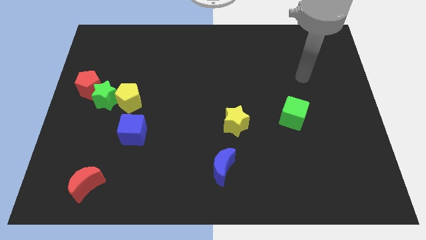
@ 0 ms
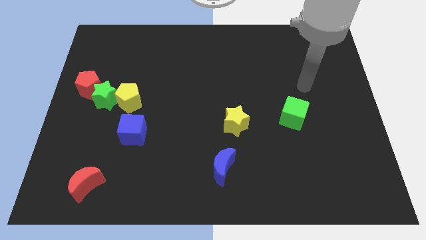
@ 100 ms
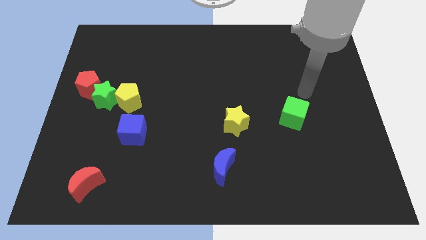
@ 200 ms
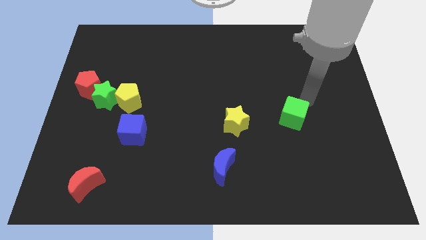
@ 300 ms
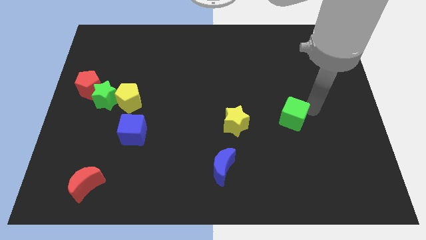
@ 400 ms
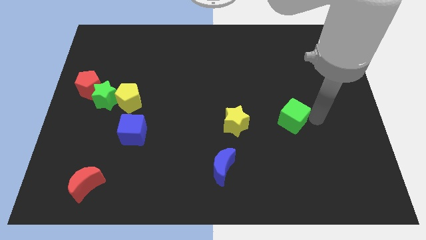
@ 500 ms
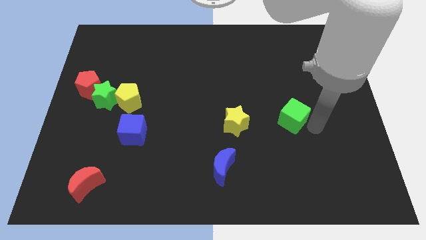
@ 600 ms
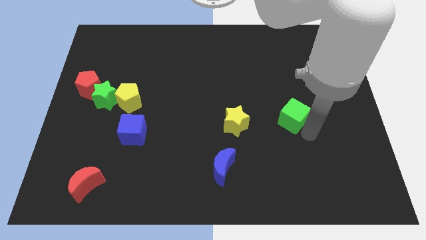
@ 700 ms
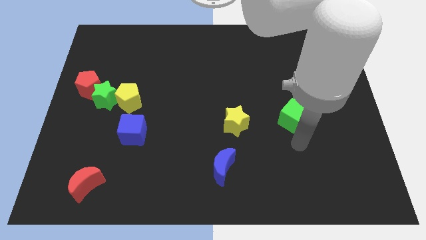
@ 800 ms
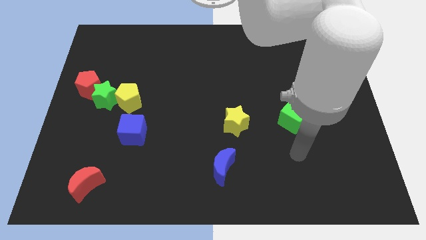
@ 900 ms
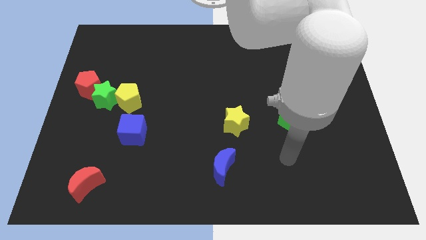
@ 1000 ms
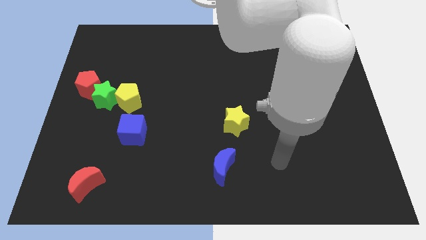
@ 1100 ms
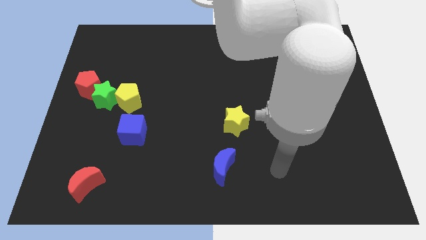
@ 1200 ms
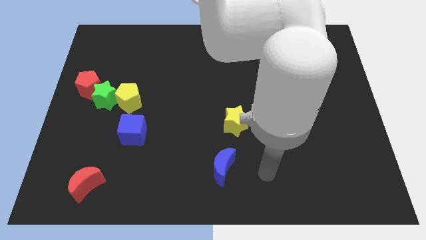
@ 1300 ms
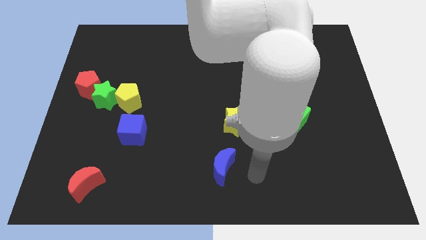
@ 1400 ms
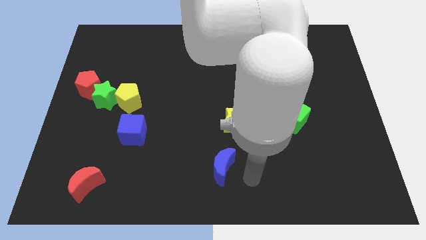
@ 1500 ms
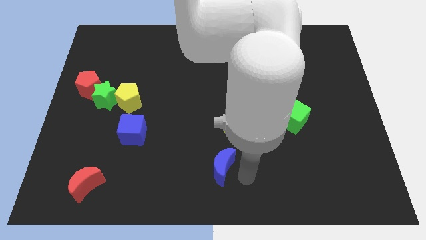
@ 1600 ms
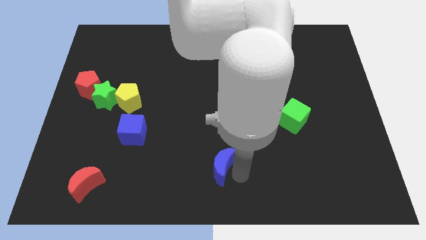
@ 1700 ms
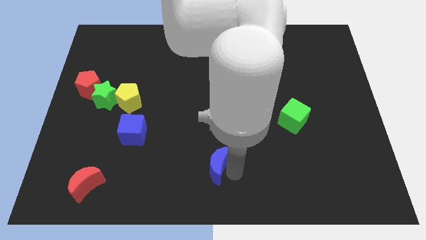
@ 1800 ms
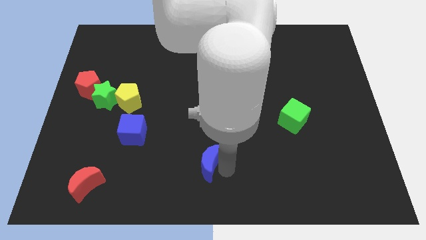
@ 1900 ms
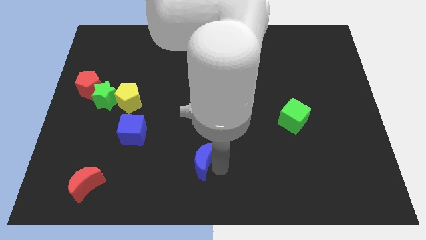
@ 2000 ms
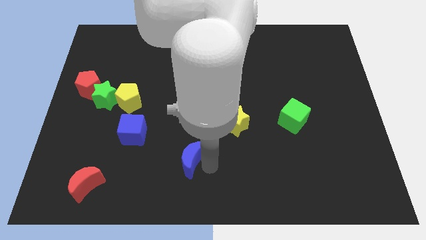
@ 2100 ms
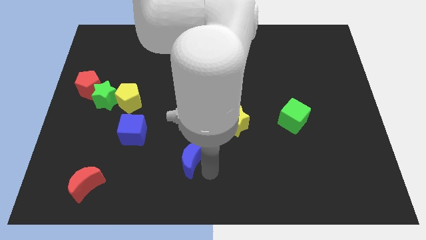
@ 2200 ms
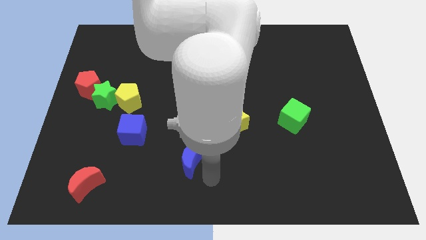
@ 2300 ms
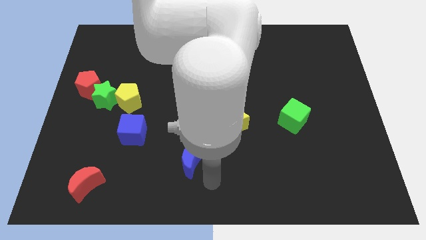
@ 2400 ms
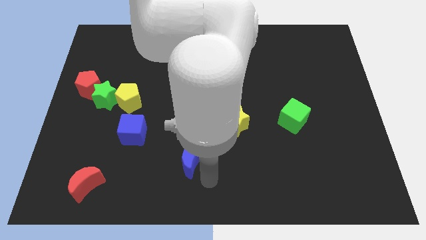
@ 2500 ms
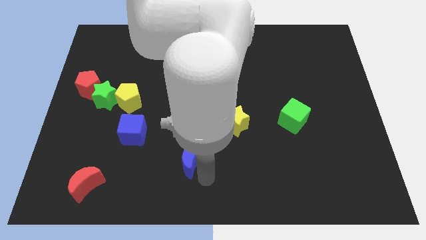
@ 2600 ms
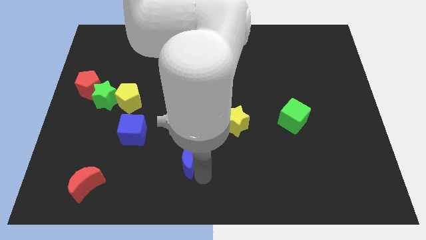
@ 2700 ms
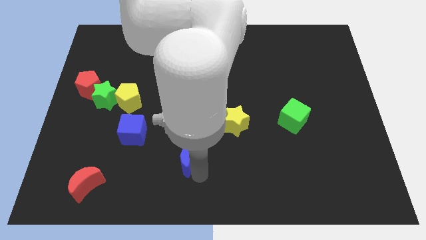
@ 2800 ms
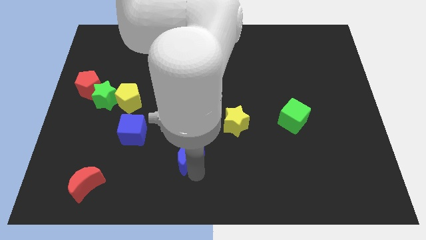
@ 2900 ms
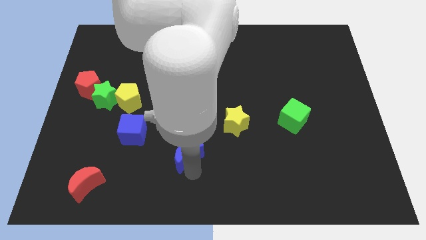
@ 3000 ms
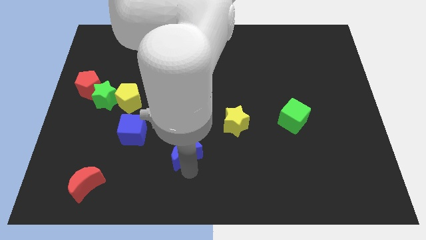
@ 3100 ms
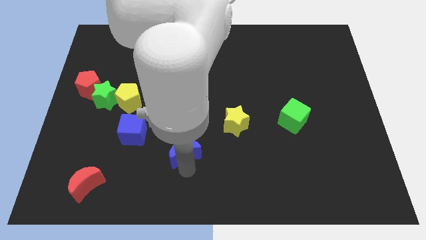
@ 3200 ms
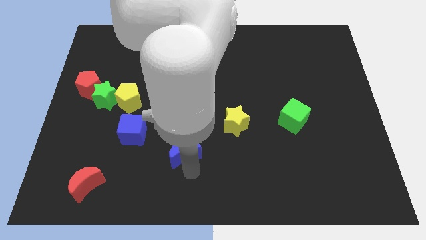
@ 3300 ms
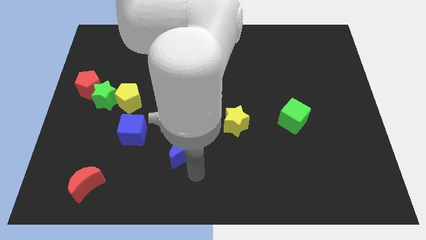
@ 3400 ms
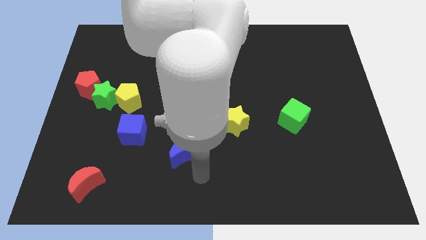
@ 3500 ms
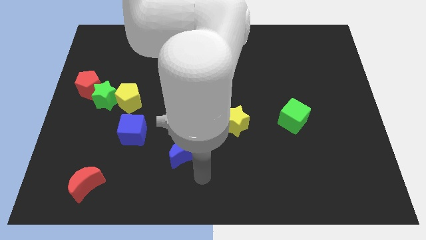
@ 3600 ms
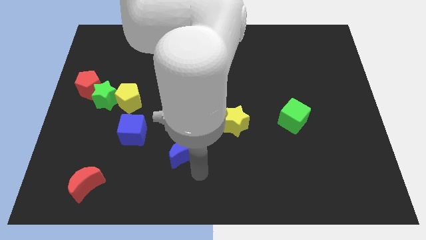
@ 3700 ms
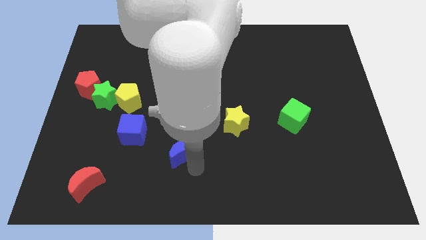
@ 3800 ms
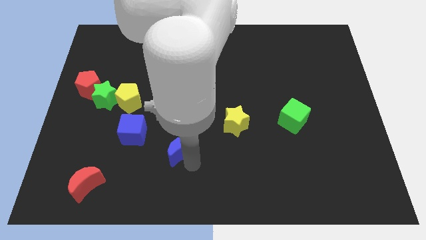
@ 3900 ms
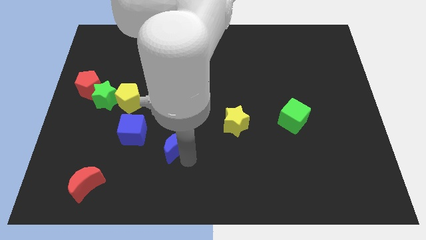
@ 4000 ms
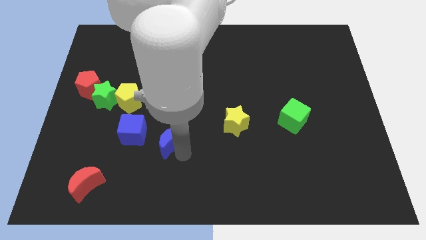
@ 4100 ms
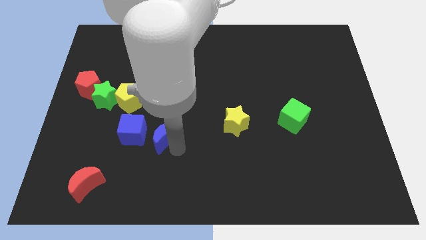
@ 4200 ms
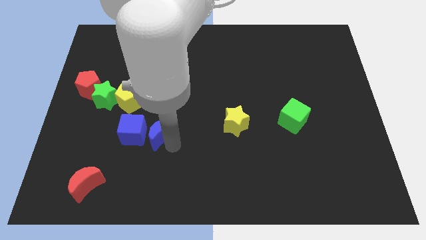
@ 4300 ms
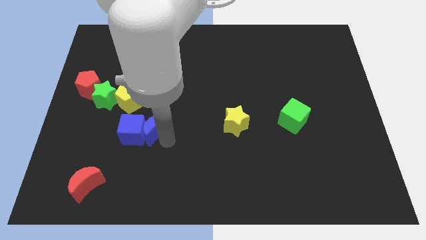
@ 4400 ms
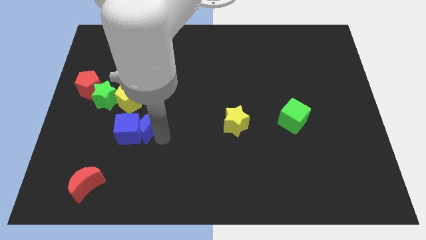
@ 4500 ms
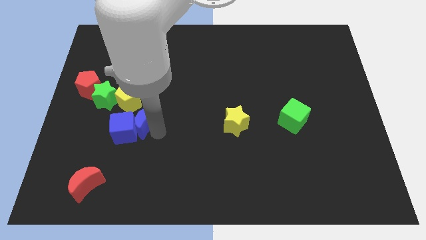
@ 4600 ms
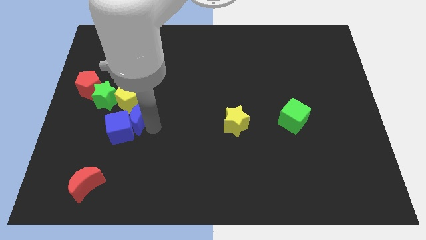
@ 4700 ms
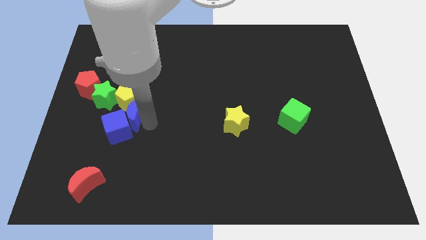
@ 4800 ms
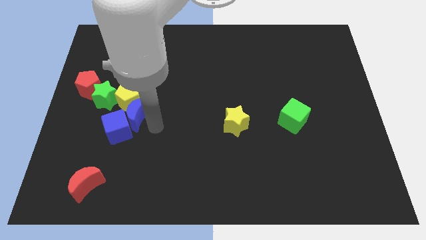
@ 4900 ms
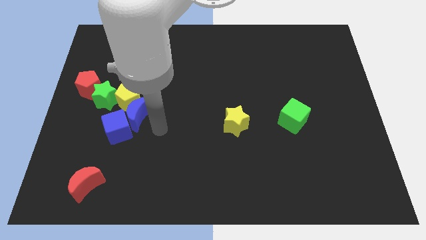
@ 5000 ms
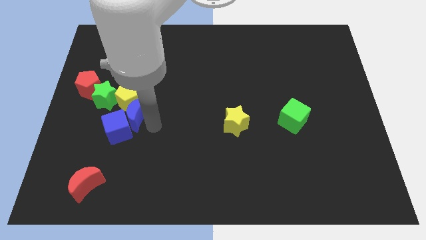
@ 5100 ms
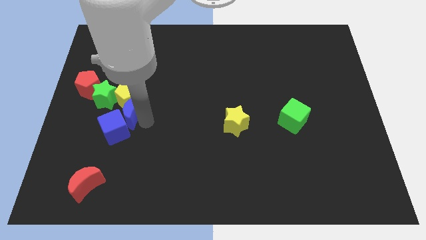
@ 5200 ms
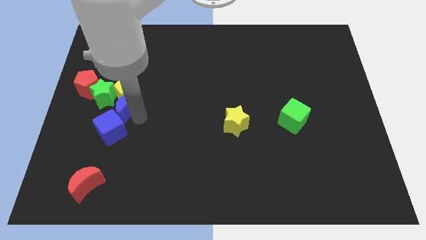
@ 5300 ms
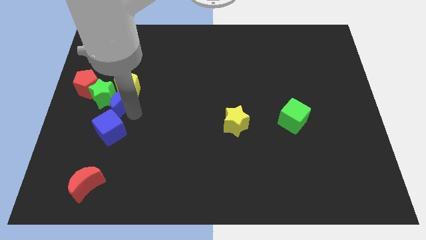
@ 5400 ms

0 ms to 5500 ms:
slide the blue moon next to the green star

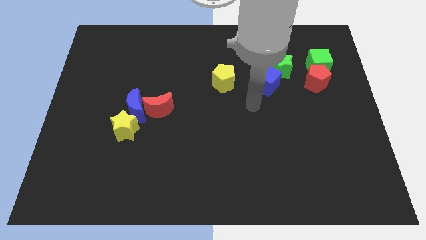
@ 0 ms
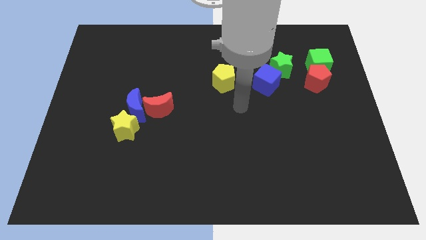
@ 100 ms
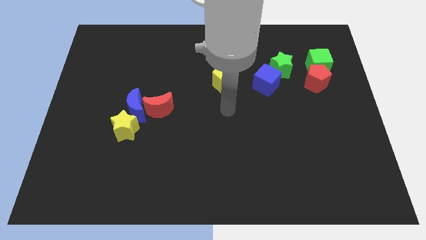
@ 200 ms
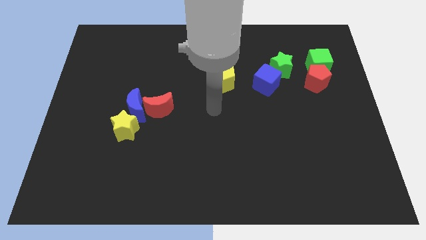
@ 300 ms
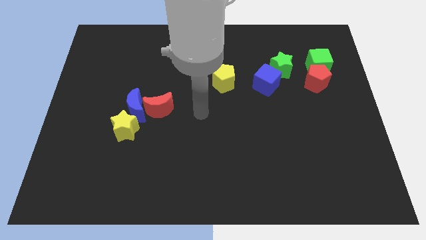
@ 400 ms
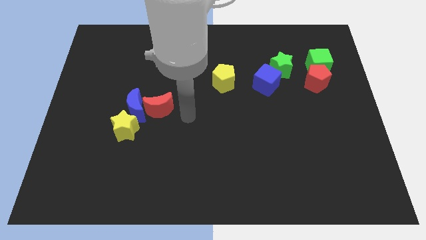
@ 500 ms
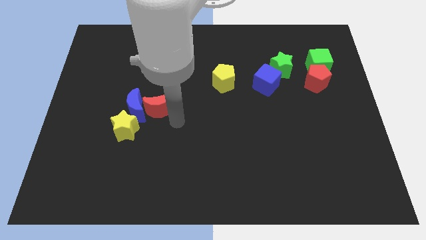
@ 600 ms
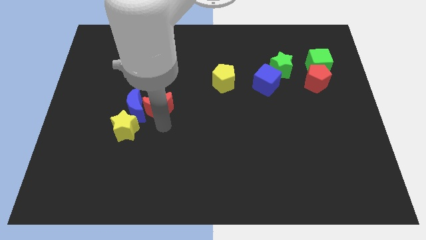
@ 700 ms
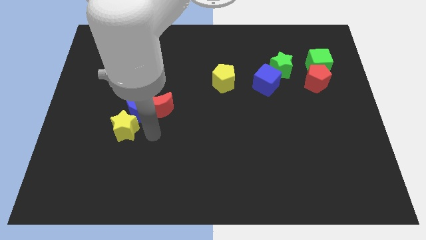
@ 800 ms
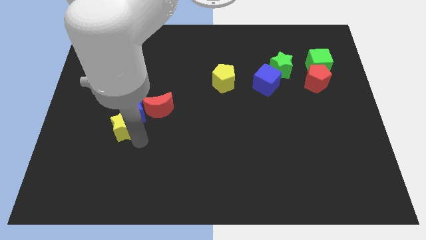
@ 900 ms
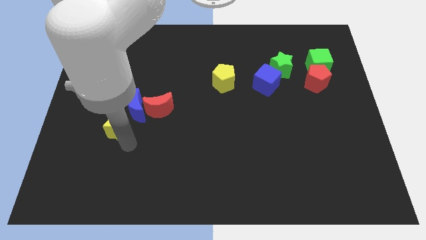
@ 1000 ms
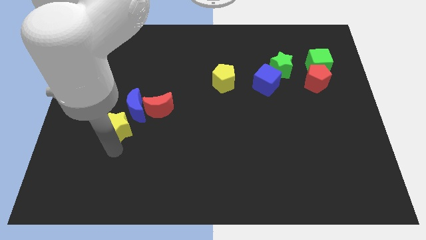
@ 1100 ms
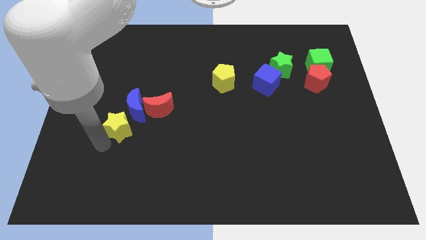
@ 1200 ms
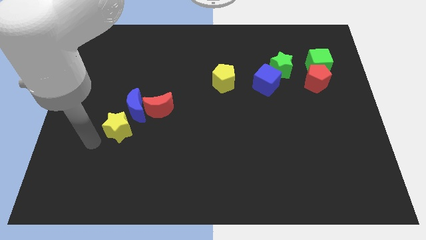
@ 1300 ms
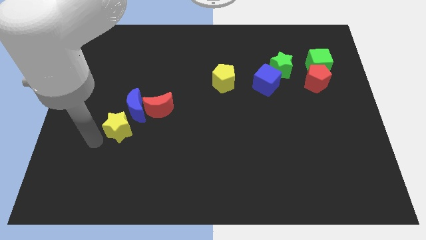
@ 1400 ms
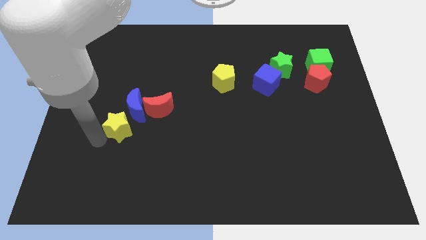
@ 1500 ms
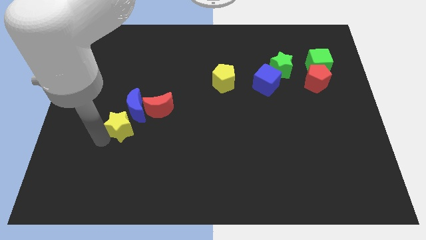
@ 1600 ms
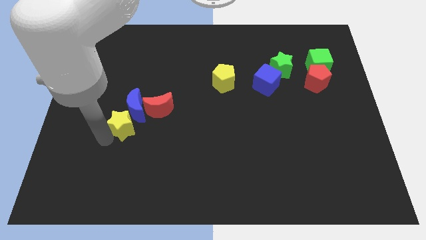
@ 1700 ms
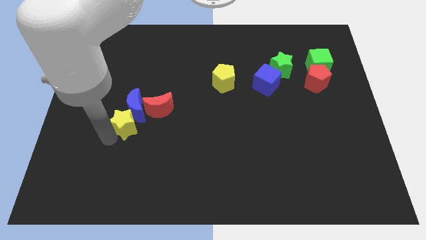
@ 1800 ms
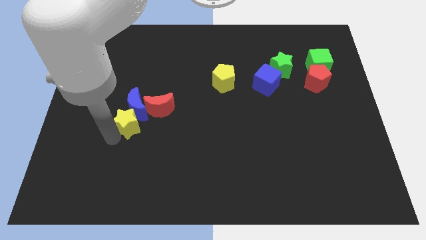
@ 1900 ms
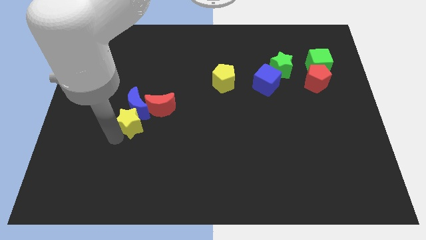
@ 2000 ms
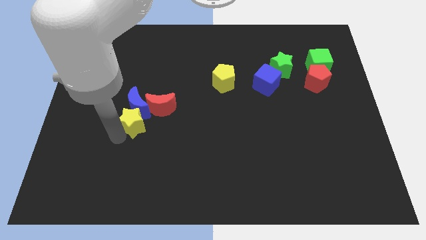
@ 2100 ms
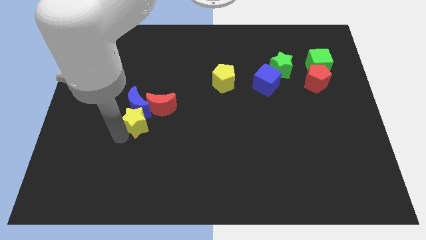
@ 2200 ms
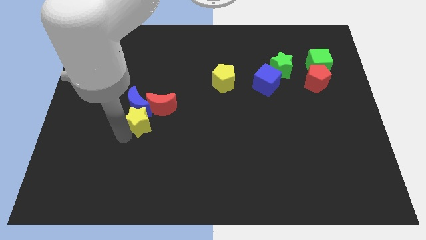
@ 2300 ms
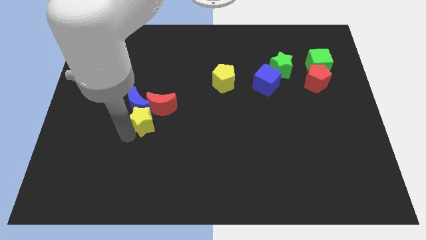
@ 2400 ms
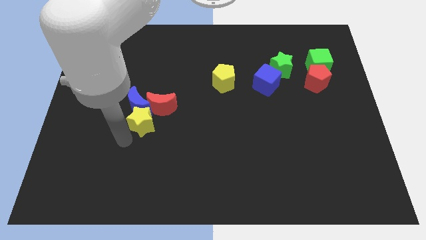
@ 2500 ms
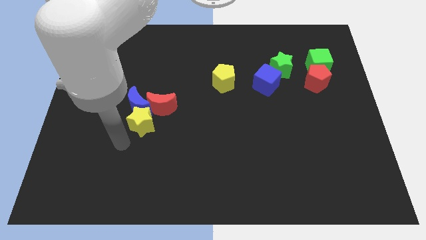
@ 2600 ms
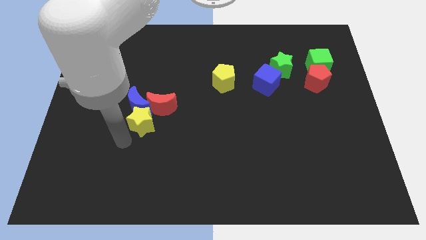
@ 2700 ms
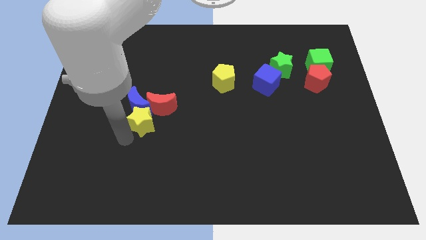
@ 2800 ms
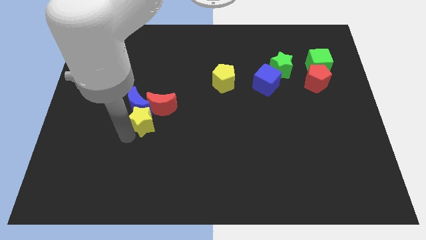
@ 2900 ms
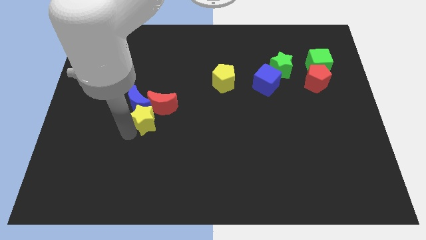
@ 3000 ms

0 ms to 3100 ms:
move the yellow star close to the red moon
